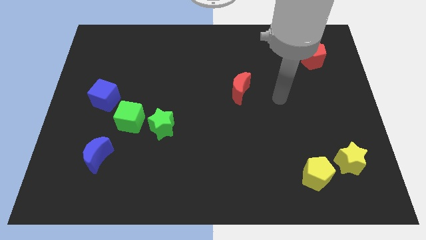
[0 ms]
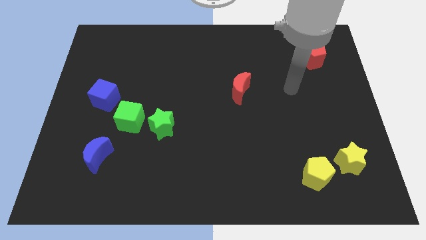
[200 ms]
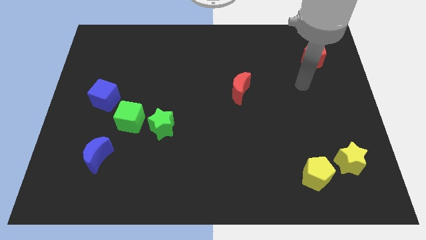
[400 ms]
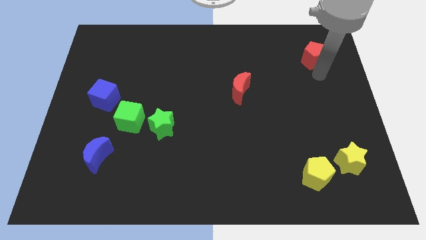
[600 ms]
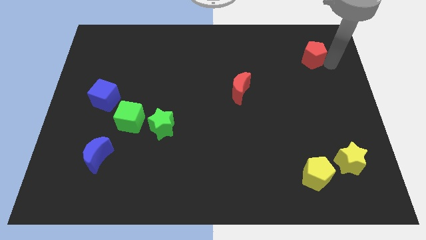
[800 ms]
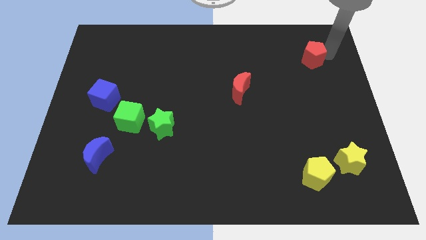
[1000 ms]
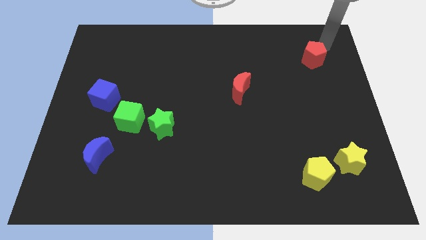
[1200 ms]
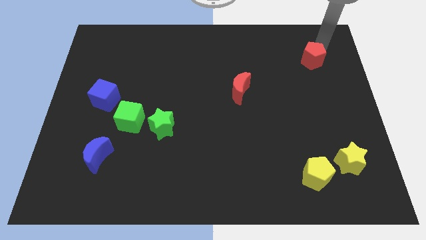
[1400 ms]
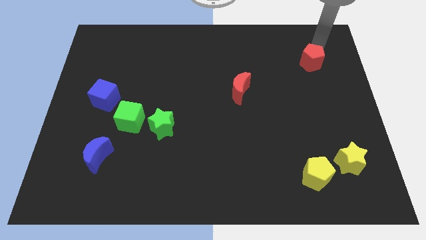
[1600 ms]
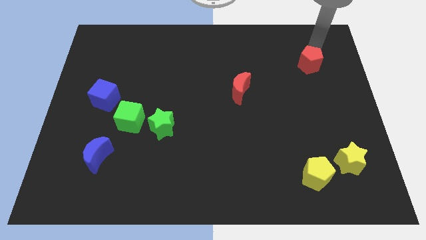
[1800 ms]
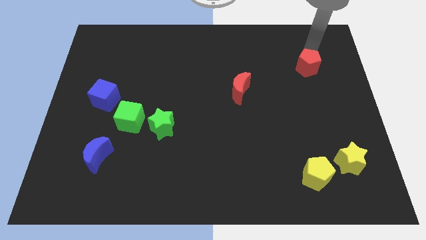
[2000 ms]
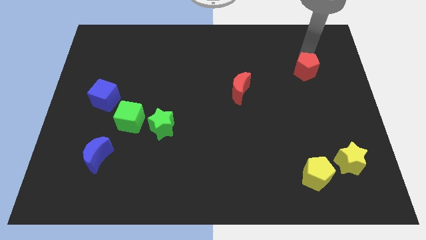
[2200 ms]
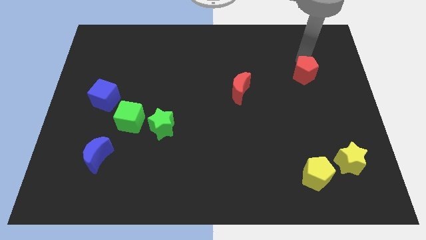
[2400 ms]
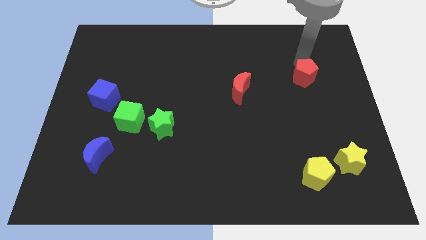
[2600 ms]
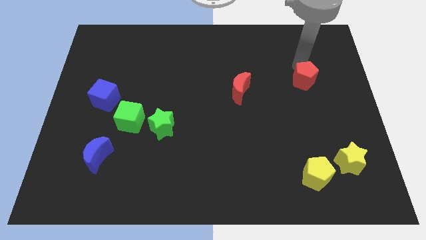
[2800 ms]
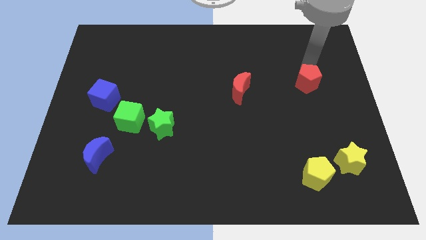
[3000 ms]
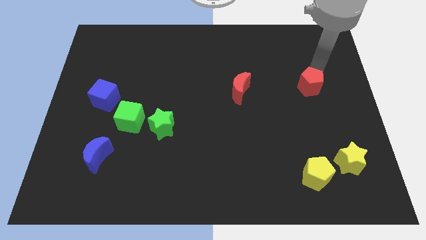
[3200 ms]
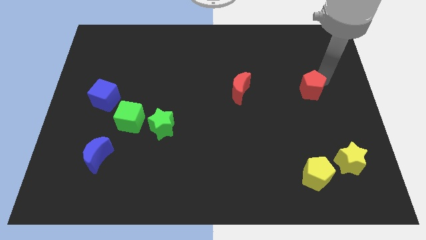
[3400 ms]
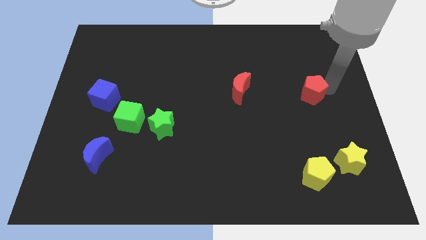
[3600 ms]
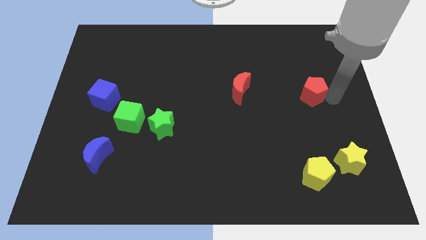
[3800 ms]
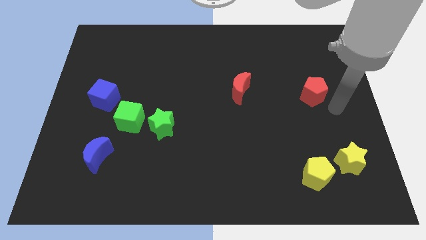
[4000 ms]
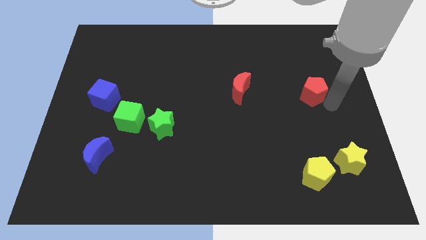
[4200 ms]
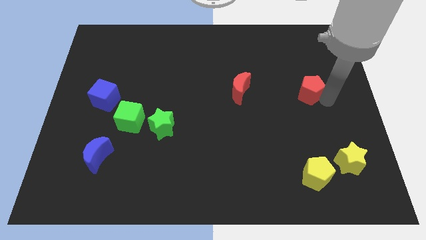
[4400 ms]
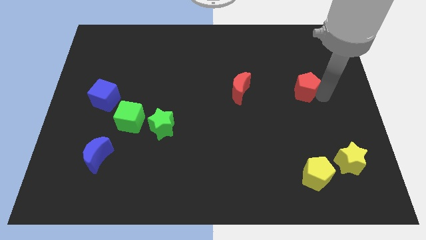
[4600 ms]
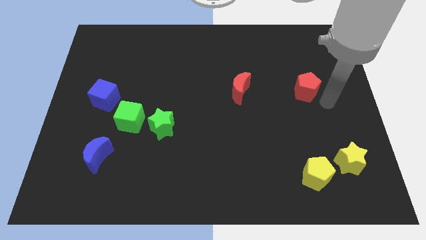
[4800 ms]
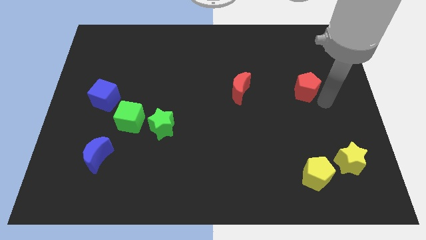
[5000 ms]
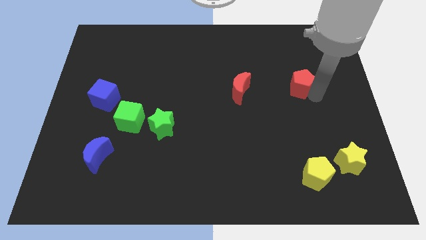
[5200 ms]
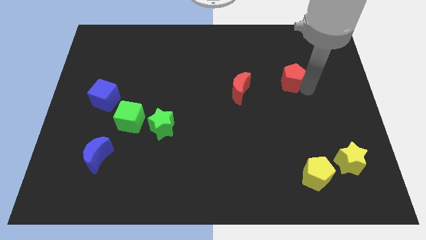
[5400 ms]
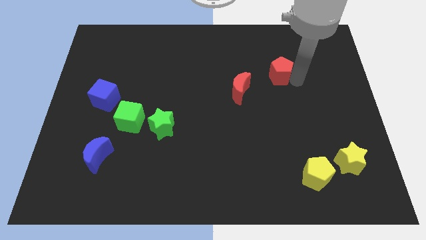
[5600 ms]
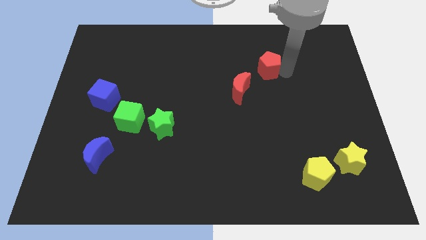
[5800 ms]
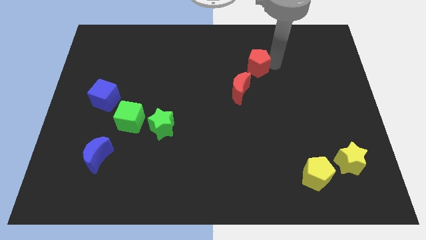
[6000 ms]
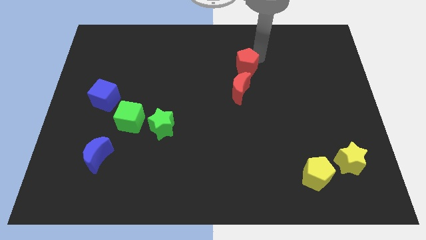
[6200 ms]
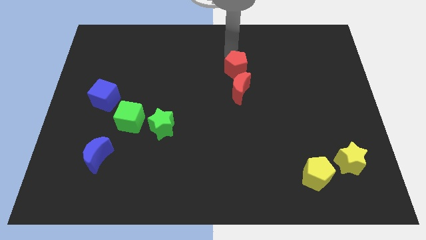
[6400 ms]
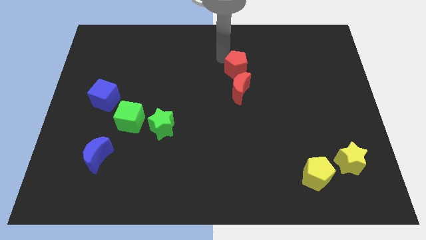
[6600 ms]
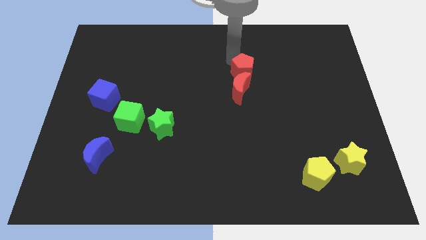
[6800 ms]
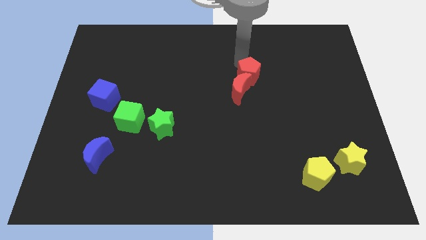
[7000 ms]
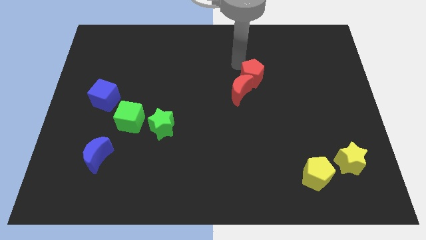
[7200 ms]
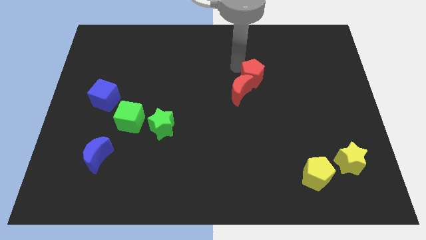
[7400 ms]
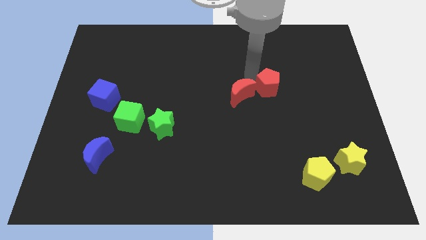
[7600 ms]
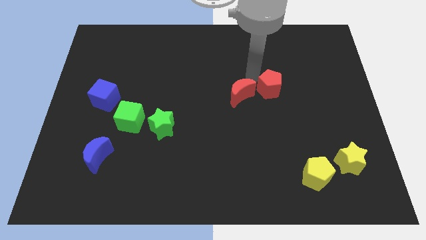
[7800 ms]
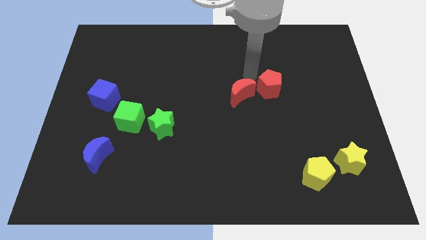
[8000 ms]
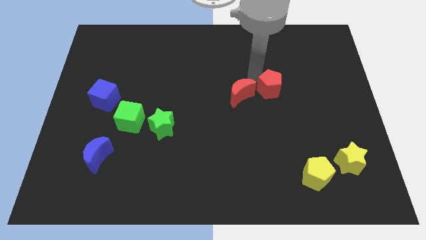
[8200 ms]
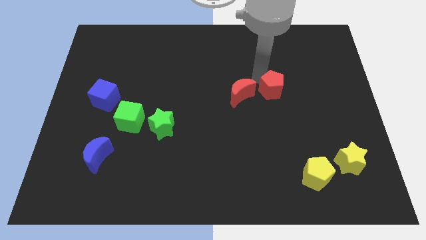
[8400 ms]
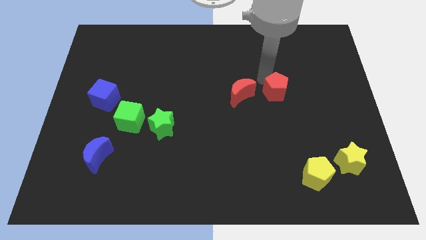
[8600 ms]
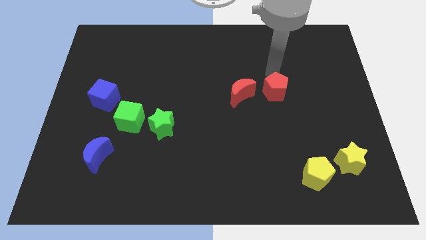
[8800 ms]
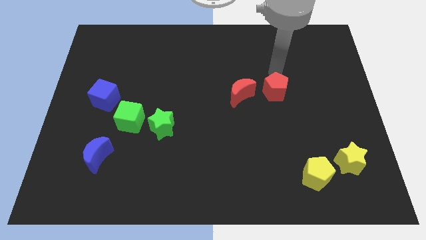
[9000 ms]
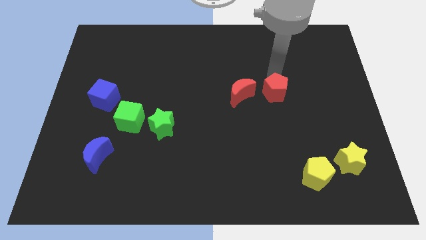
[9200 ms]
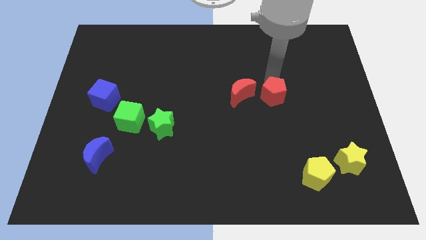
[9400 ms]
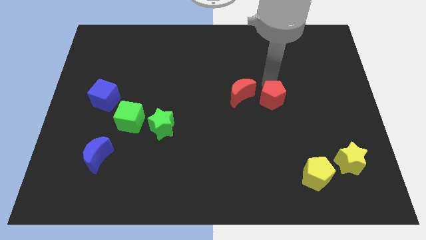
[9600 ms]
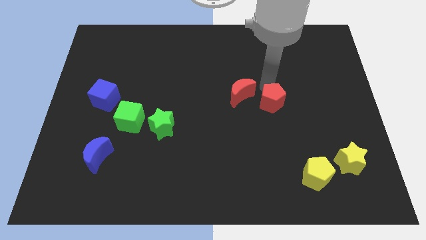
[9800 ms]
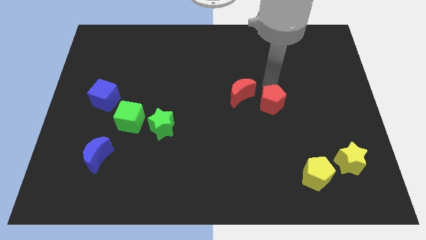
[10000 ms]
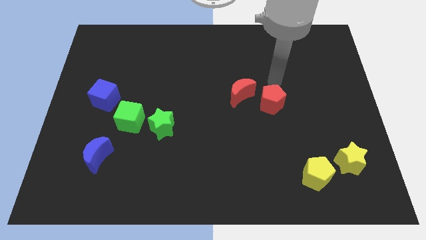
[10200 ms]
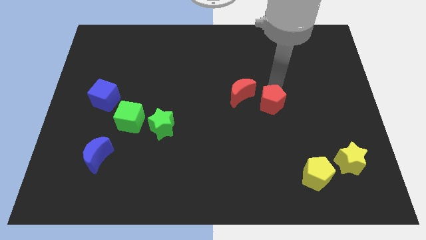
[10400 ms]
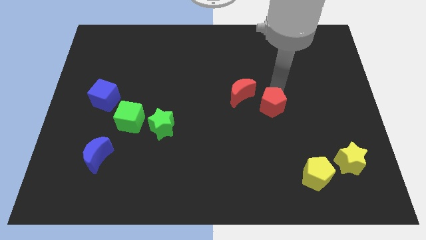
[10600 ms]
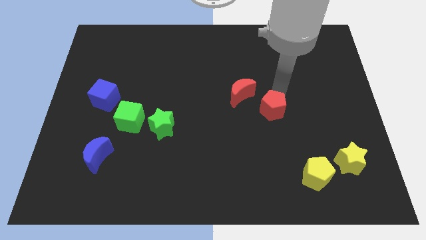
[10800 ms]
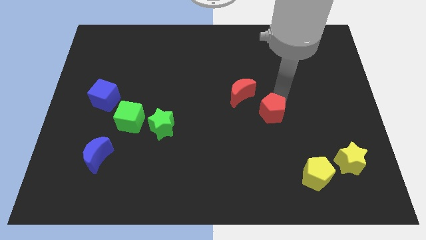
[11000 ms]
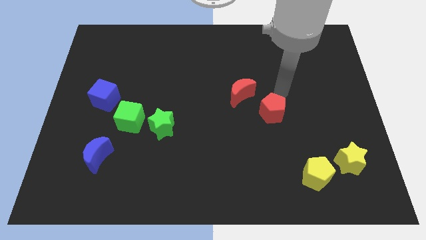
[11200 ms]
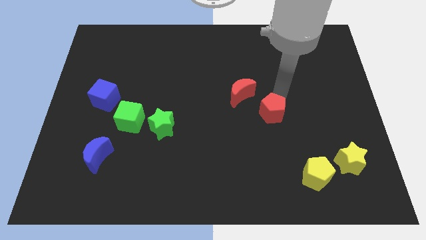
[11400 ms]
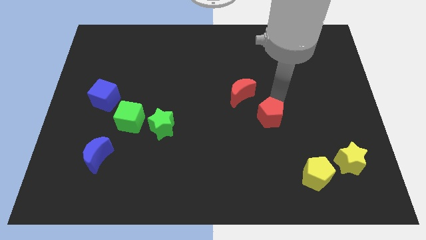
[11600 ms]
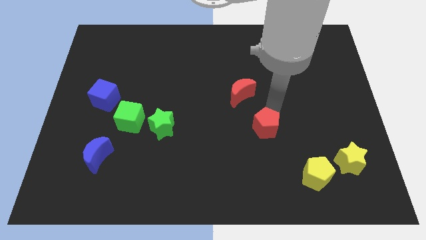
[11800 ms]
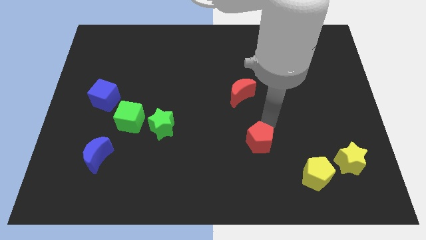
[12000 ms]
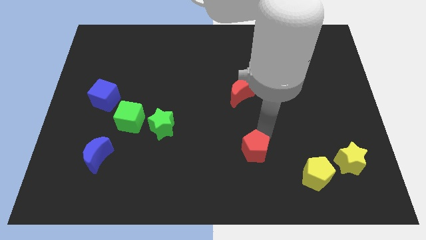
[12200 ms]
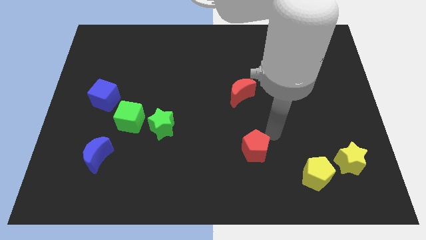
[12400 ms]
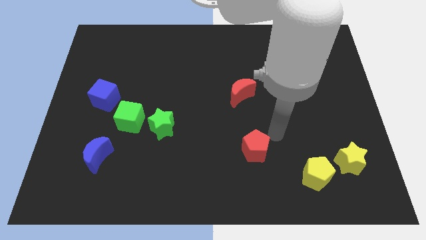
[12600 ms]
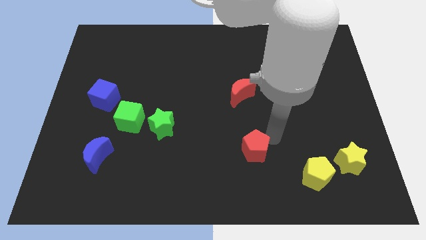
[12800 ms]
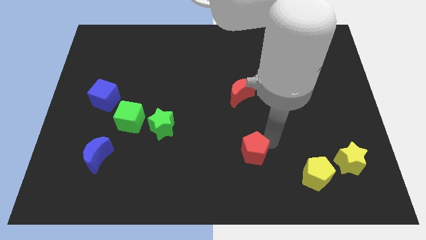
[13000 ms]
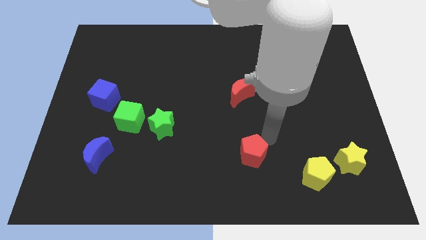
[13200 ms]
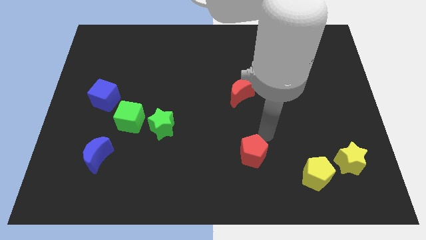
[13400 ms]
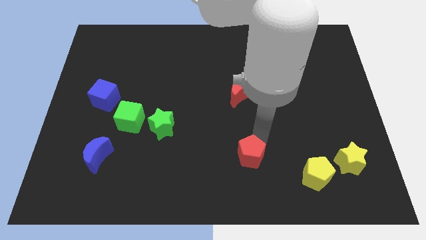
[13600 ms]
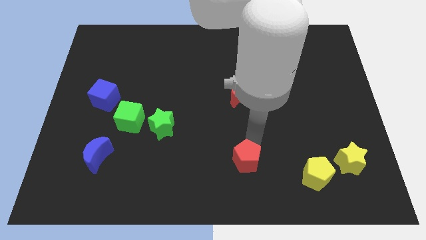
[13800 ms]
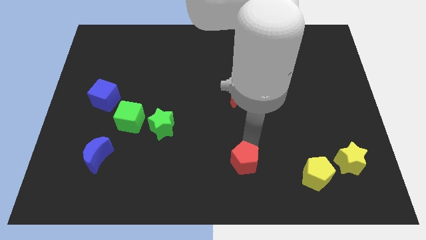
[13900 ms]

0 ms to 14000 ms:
slide the red pentagon to the bottom side
